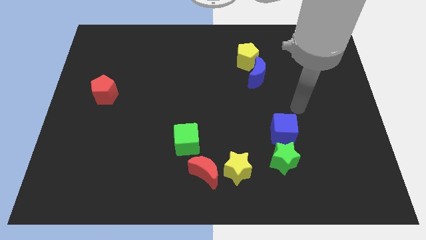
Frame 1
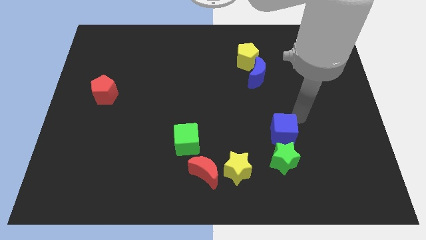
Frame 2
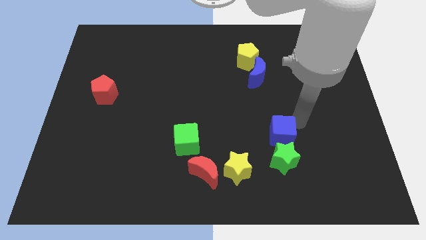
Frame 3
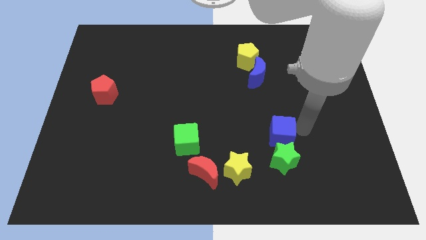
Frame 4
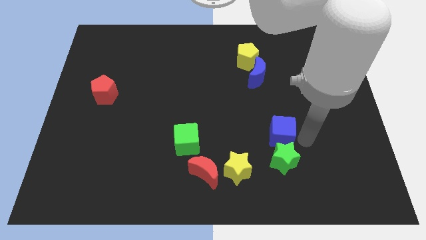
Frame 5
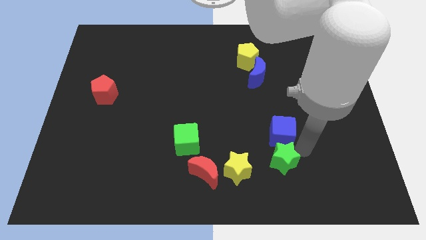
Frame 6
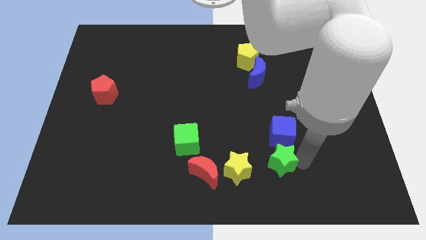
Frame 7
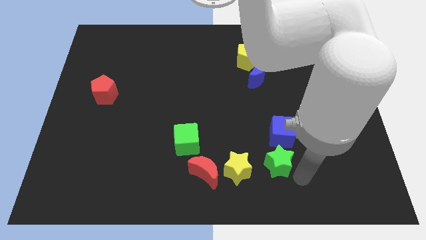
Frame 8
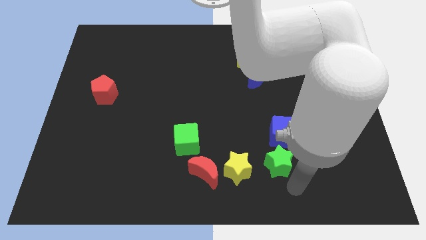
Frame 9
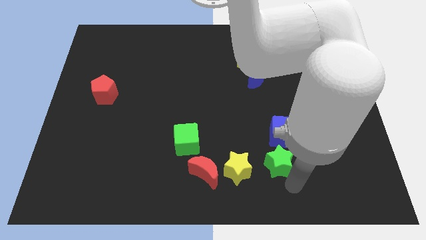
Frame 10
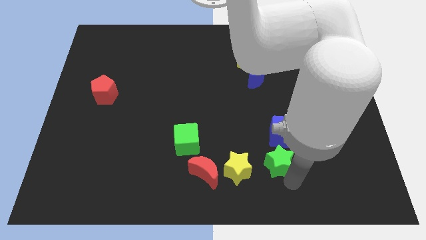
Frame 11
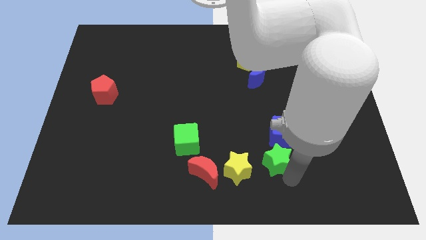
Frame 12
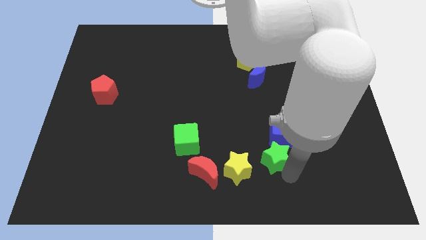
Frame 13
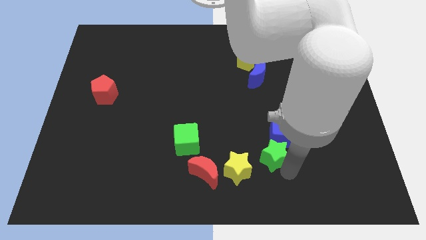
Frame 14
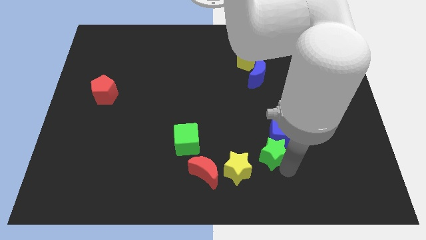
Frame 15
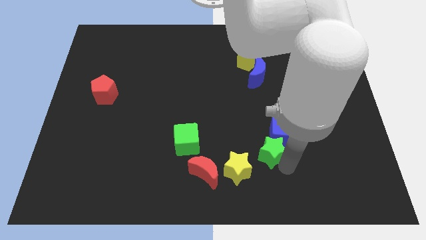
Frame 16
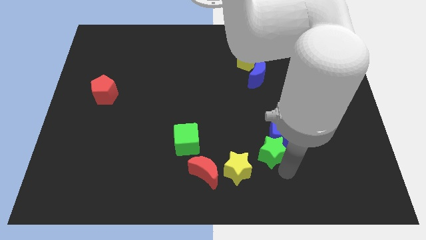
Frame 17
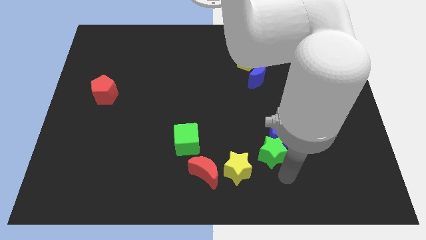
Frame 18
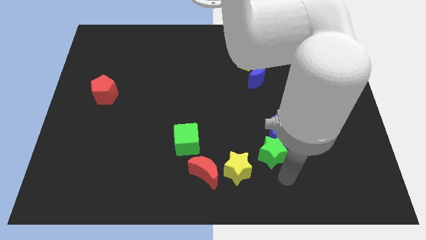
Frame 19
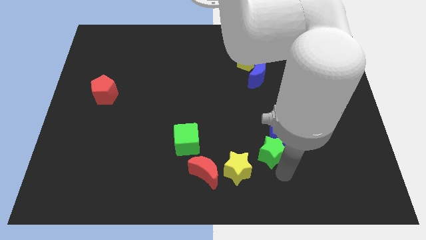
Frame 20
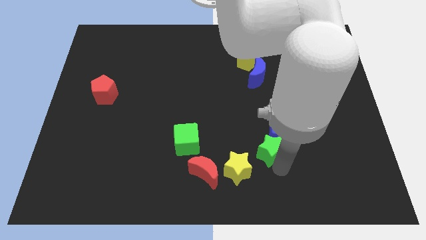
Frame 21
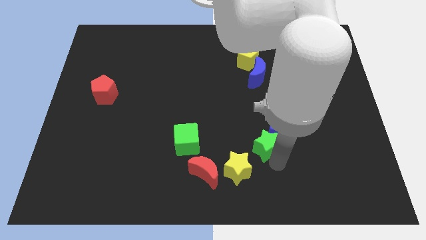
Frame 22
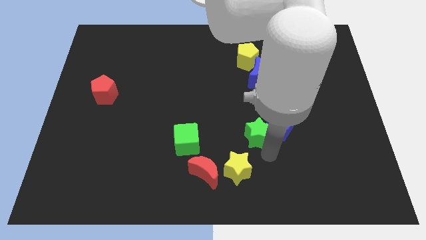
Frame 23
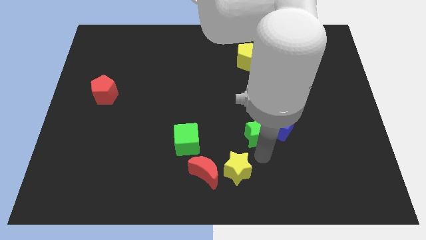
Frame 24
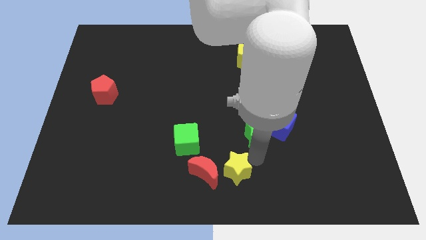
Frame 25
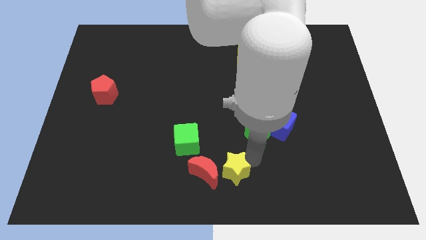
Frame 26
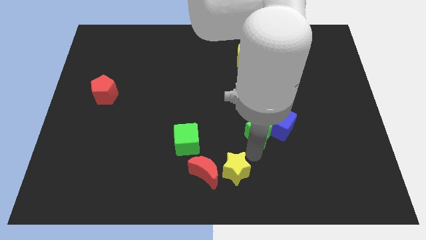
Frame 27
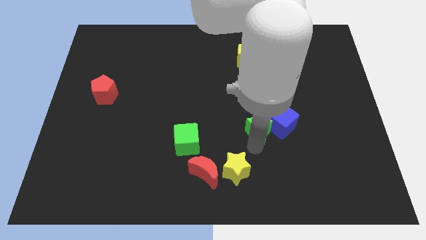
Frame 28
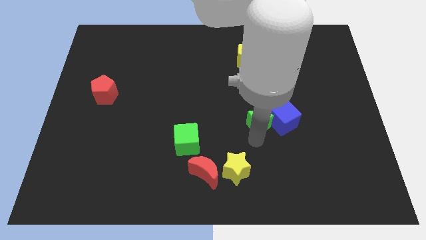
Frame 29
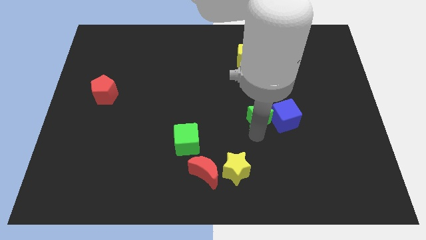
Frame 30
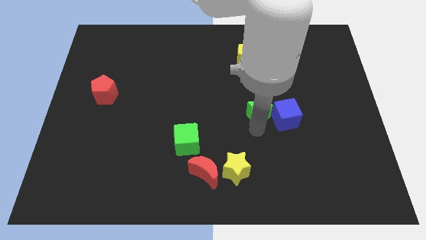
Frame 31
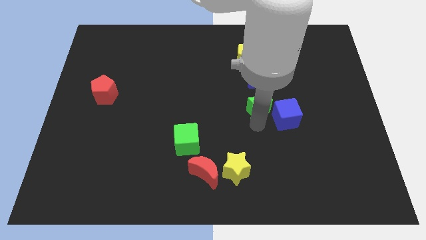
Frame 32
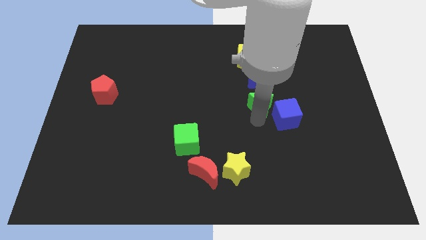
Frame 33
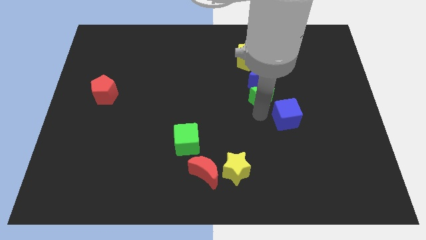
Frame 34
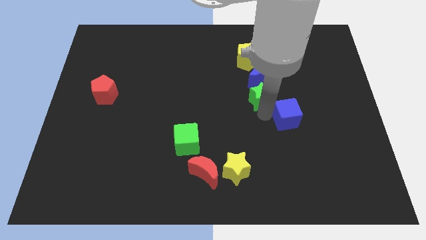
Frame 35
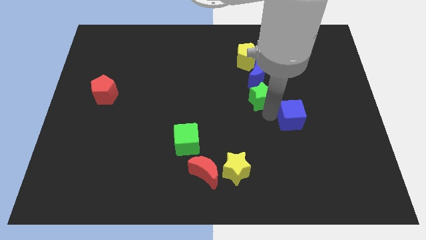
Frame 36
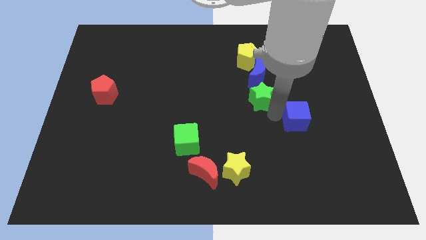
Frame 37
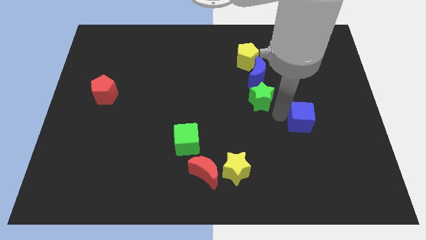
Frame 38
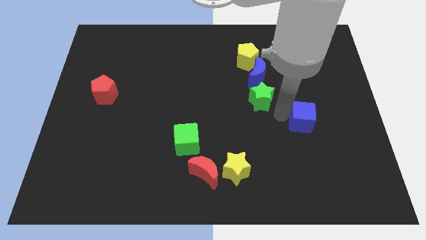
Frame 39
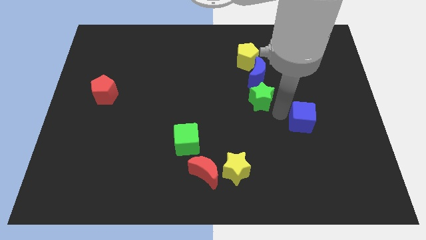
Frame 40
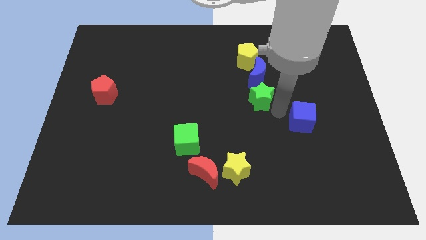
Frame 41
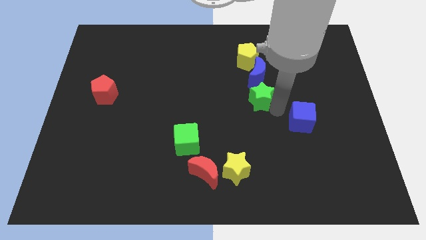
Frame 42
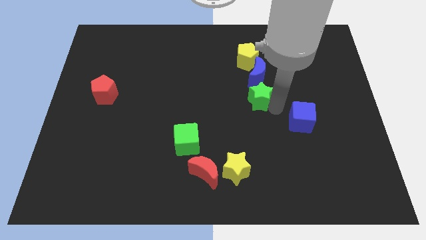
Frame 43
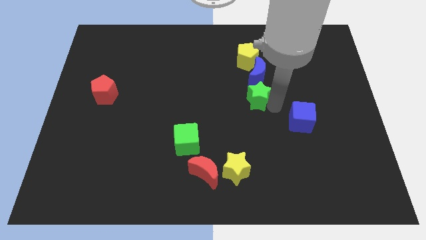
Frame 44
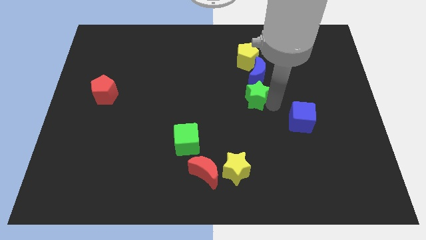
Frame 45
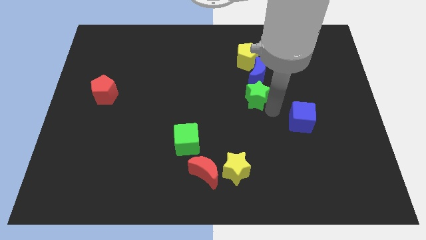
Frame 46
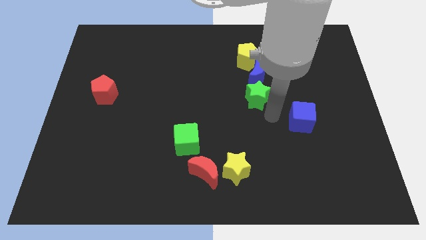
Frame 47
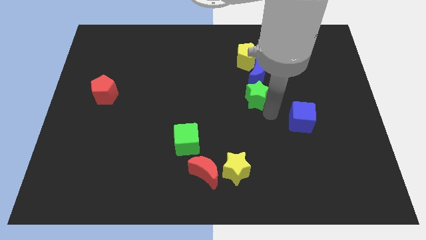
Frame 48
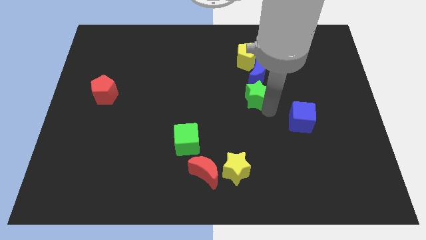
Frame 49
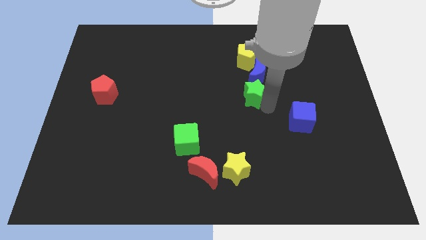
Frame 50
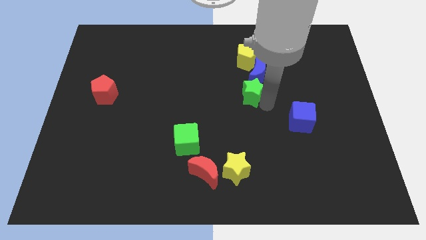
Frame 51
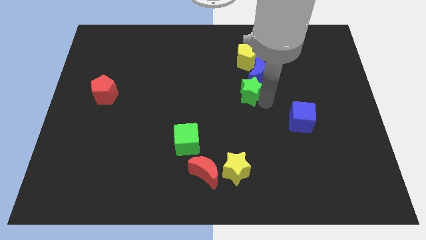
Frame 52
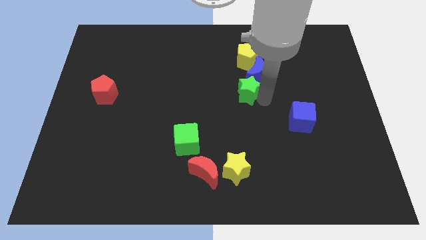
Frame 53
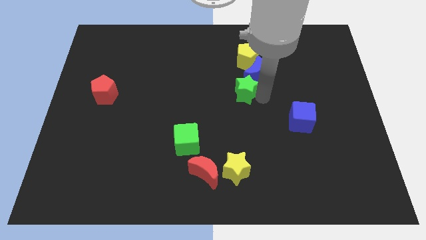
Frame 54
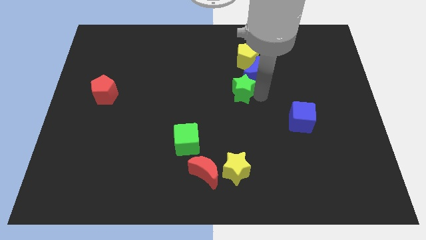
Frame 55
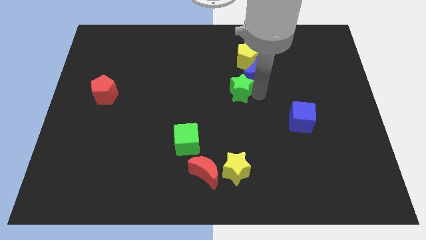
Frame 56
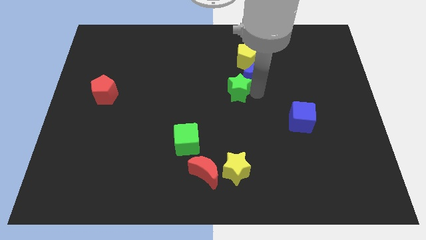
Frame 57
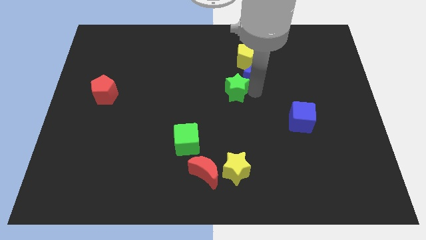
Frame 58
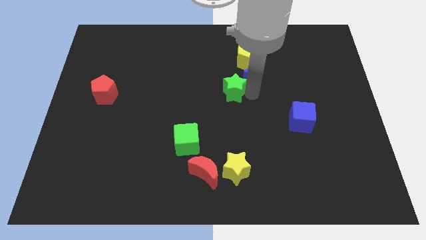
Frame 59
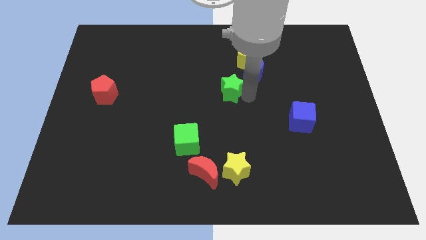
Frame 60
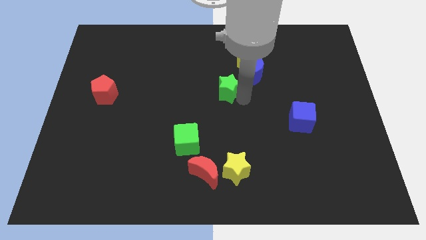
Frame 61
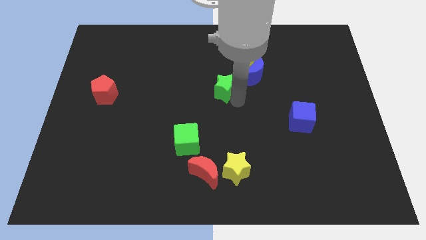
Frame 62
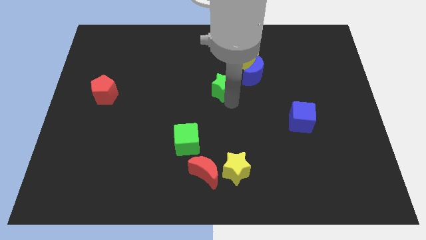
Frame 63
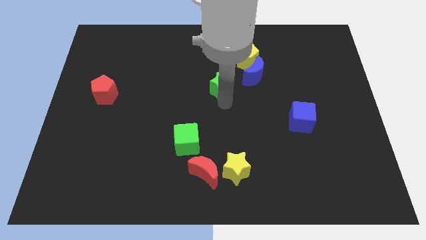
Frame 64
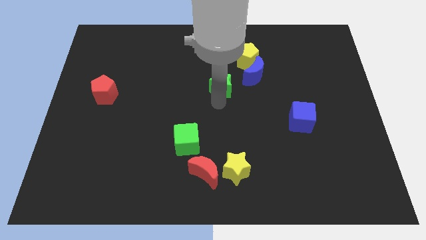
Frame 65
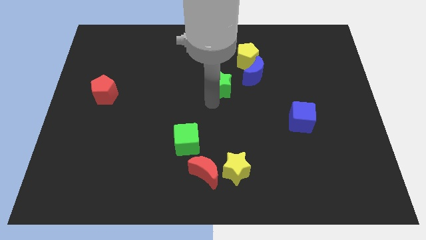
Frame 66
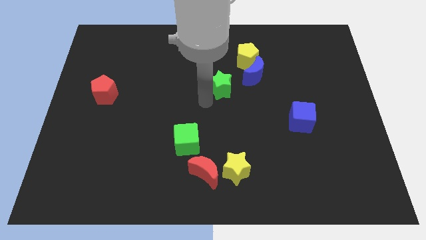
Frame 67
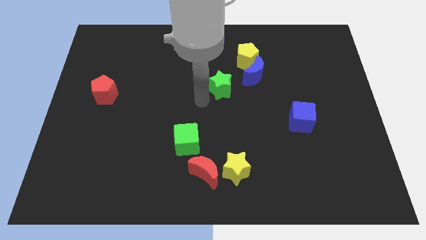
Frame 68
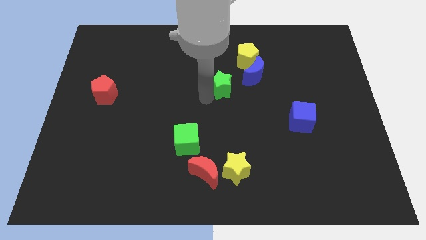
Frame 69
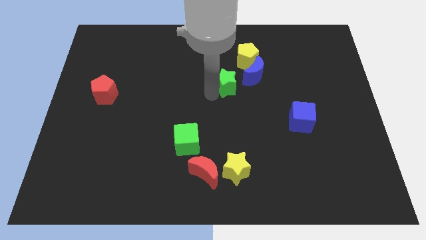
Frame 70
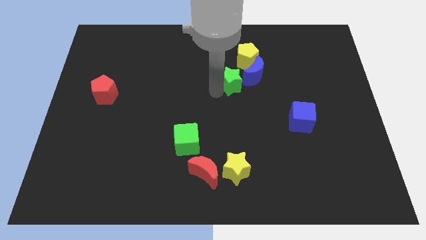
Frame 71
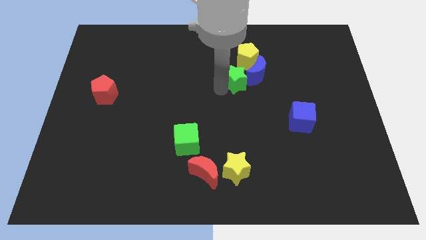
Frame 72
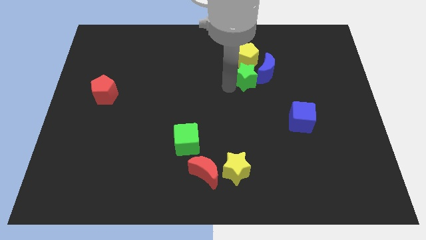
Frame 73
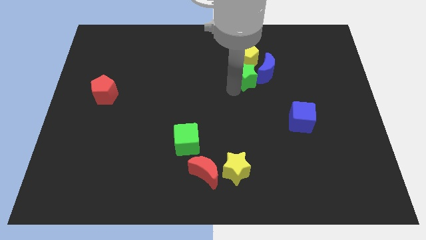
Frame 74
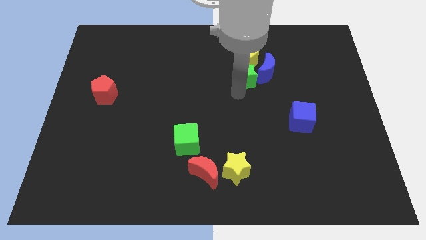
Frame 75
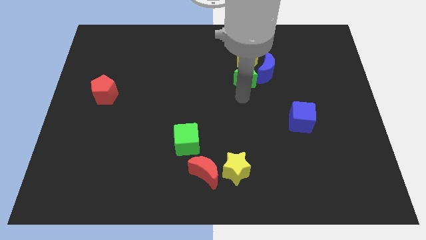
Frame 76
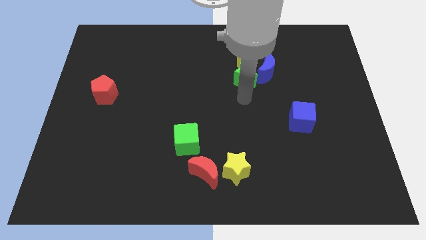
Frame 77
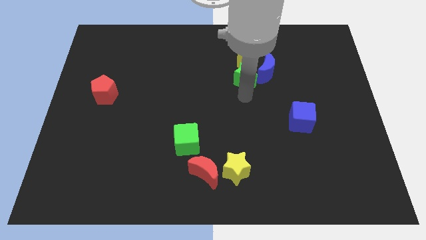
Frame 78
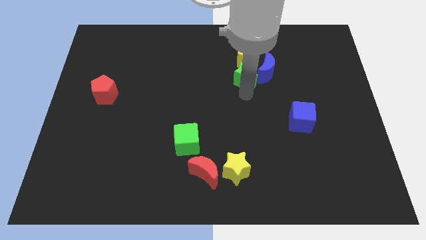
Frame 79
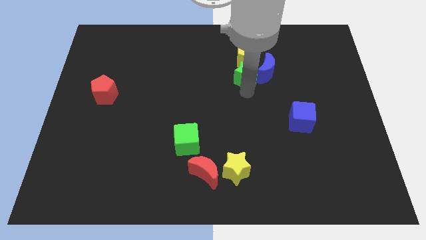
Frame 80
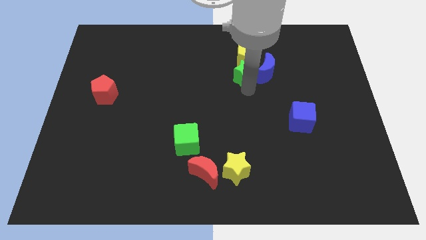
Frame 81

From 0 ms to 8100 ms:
put the green star to the yellow pentagon

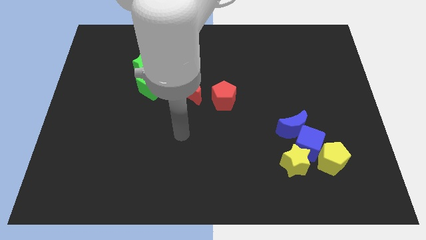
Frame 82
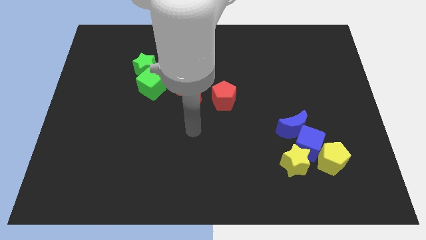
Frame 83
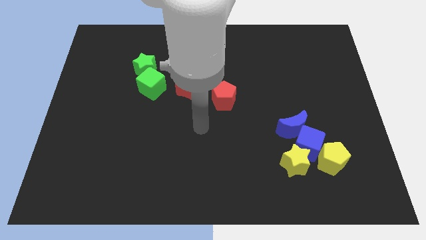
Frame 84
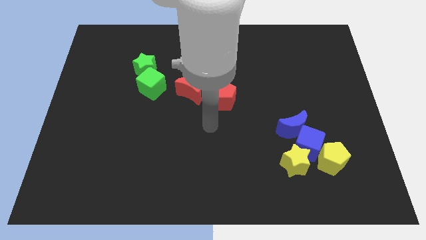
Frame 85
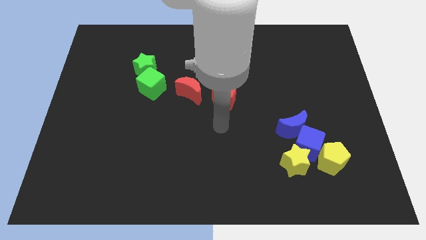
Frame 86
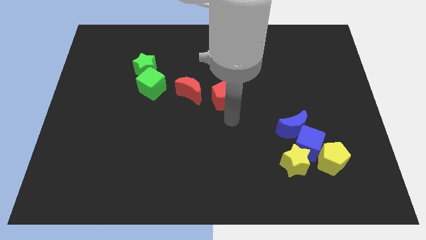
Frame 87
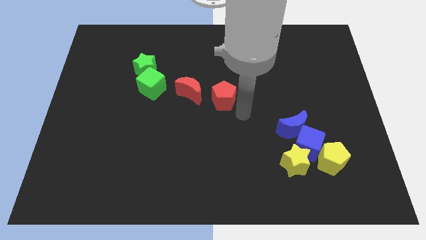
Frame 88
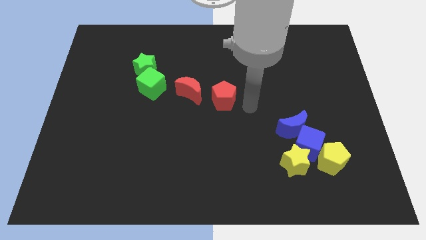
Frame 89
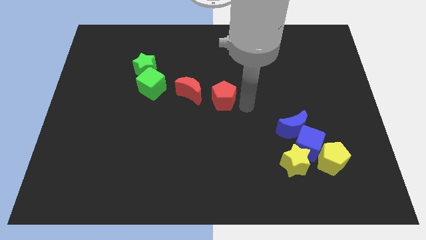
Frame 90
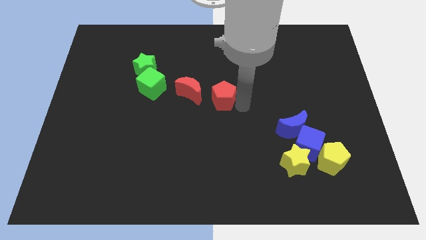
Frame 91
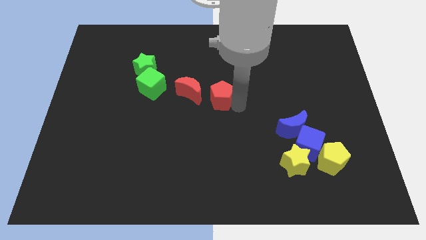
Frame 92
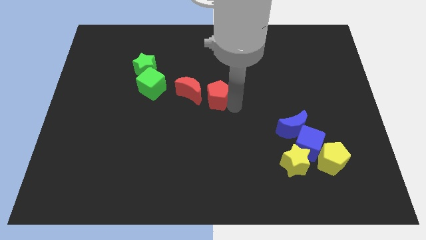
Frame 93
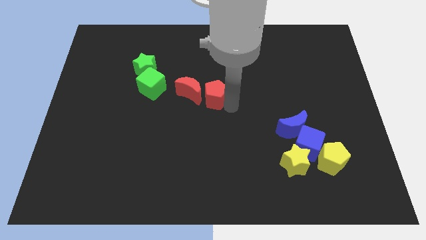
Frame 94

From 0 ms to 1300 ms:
push the red pentagon close to the red moon
